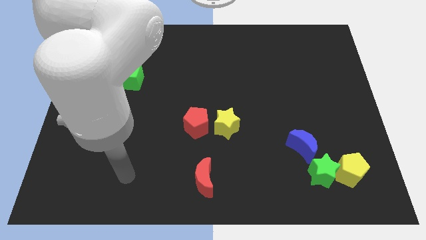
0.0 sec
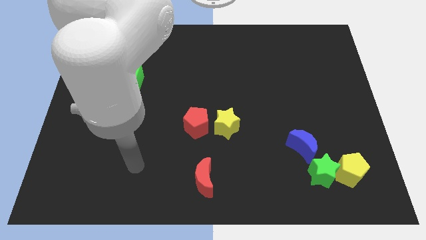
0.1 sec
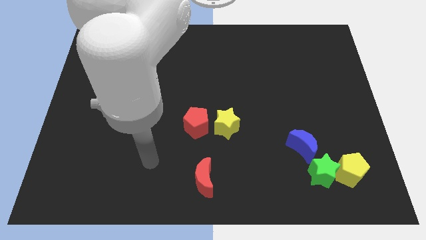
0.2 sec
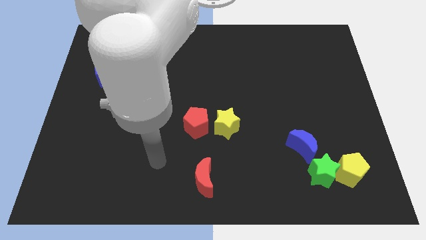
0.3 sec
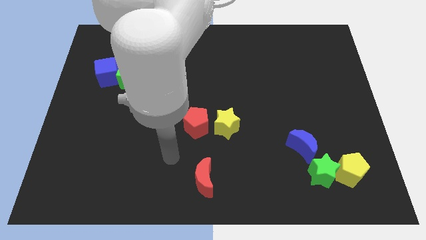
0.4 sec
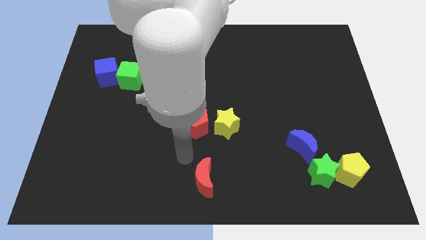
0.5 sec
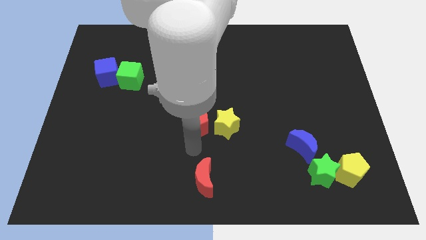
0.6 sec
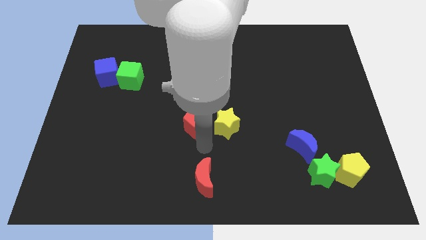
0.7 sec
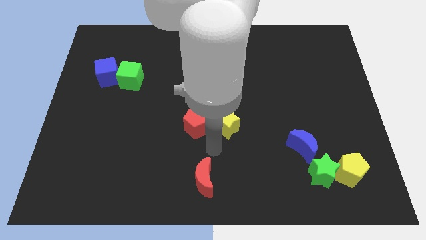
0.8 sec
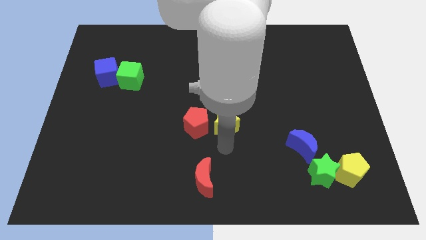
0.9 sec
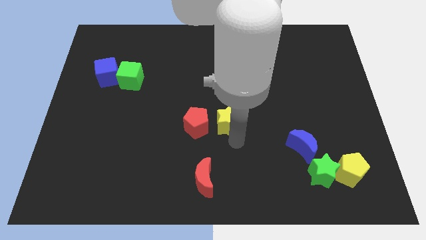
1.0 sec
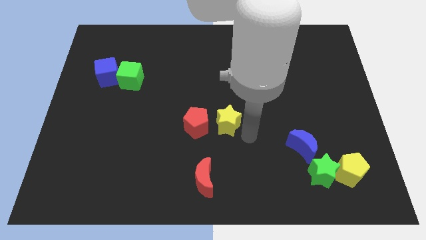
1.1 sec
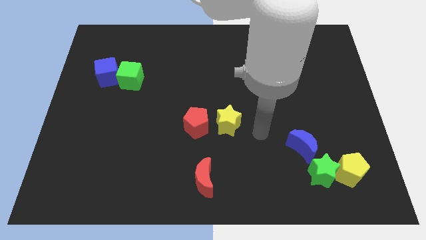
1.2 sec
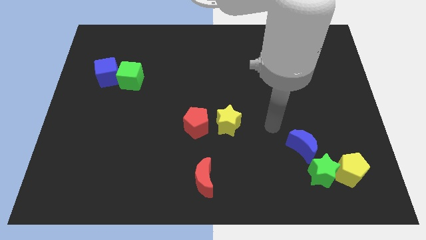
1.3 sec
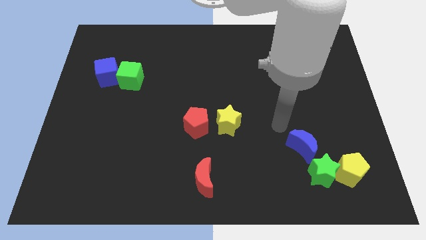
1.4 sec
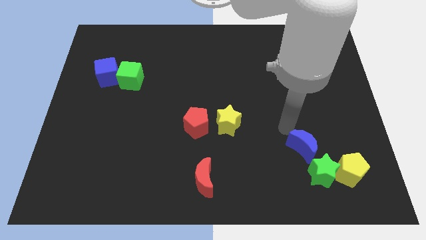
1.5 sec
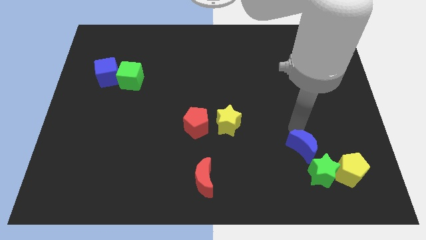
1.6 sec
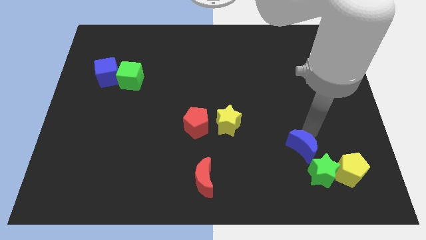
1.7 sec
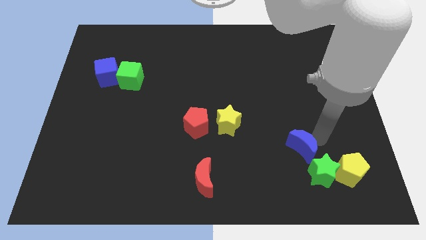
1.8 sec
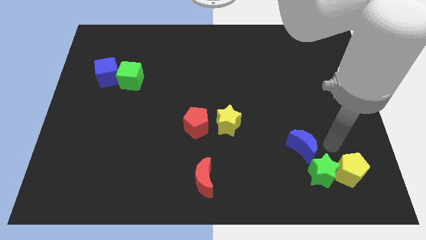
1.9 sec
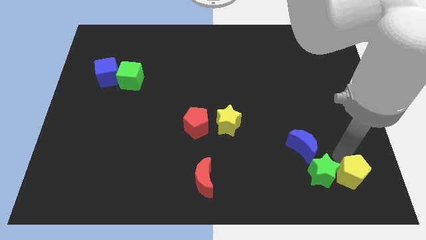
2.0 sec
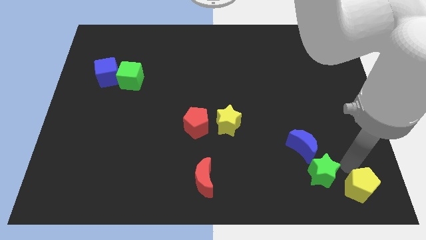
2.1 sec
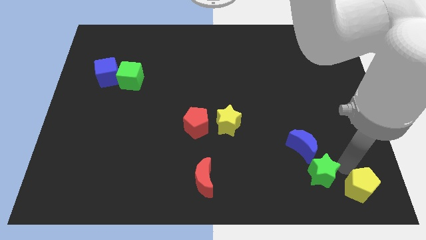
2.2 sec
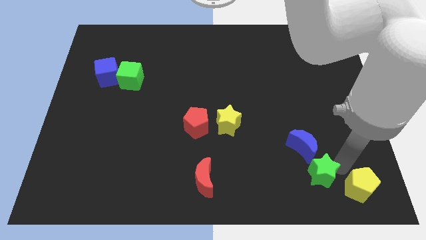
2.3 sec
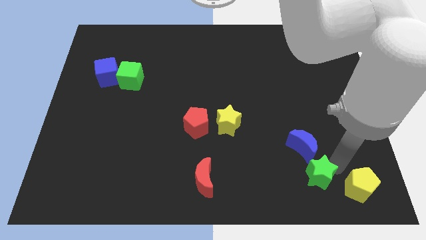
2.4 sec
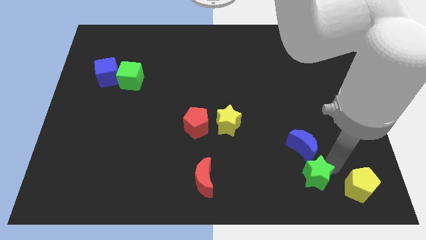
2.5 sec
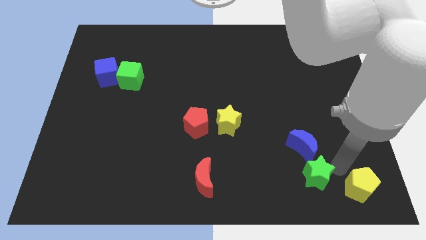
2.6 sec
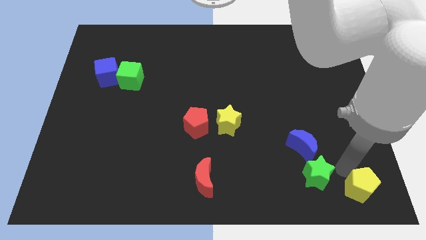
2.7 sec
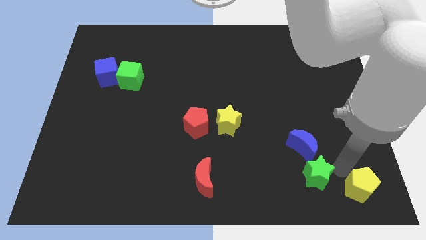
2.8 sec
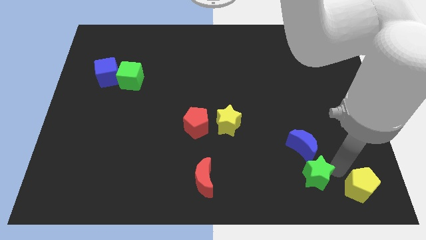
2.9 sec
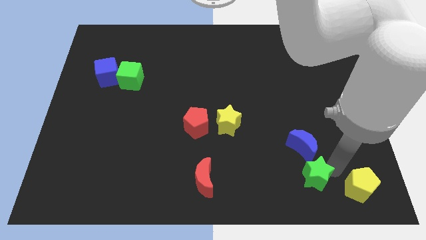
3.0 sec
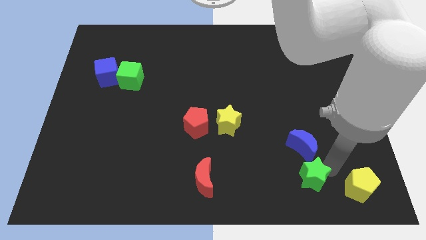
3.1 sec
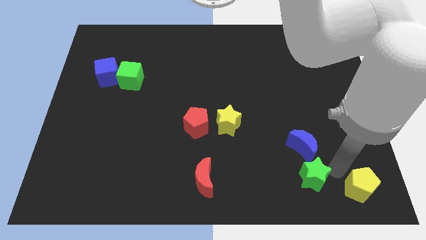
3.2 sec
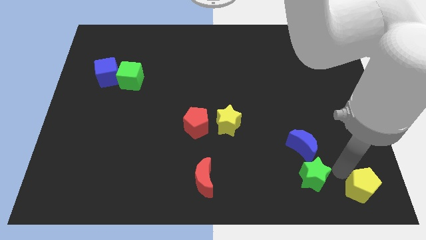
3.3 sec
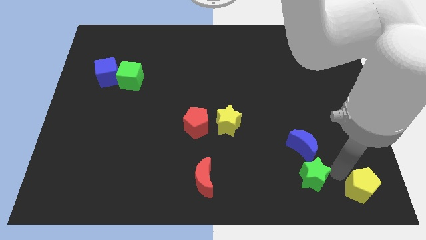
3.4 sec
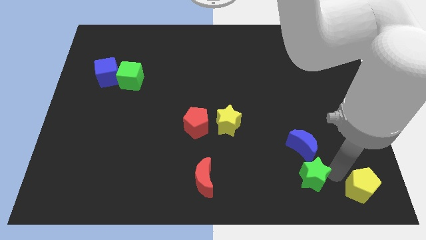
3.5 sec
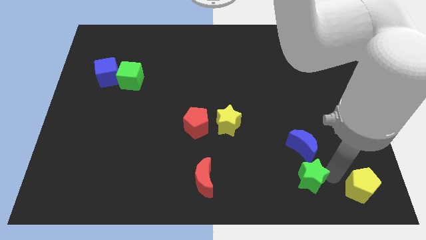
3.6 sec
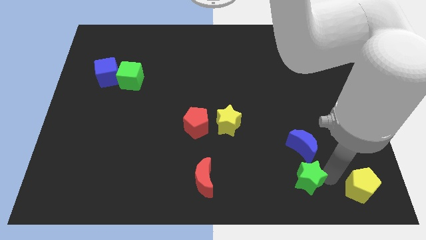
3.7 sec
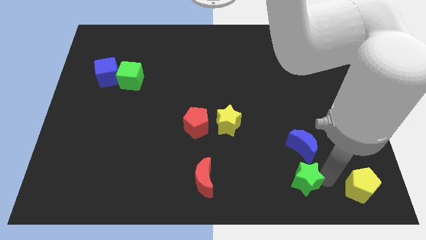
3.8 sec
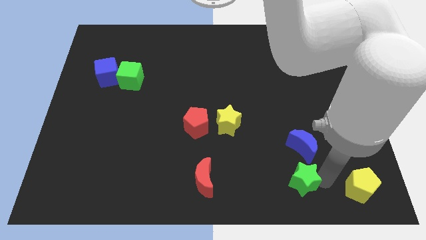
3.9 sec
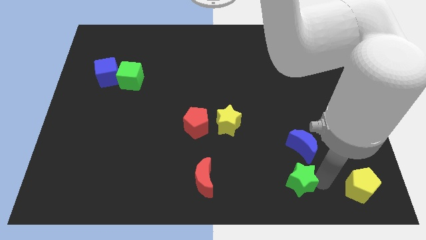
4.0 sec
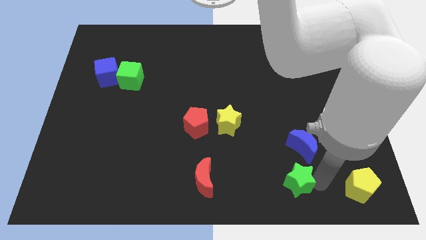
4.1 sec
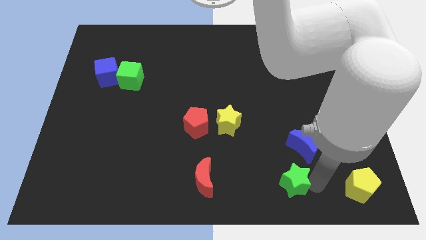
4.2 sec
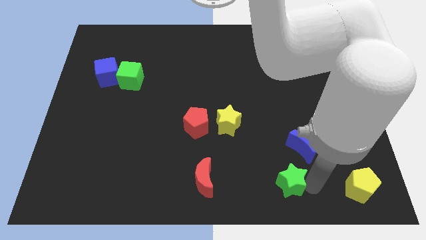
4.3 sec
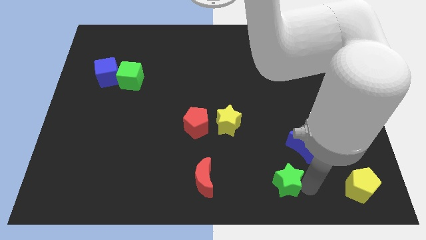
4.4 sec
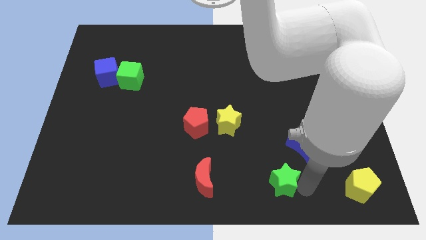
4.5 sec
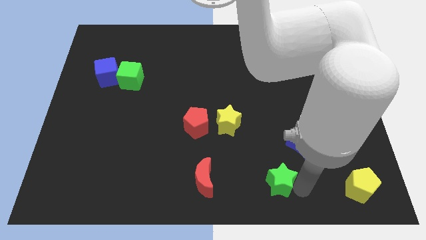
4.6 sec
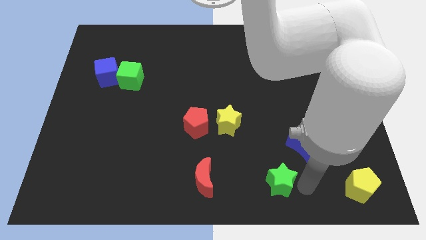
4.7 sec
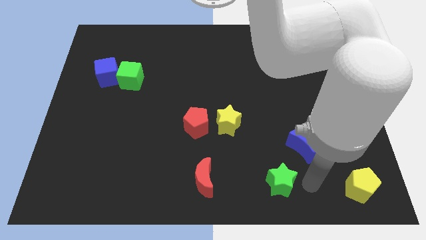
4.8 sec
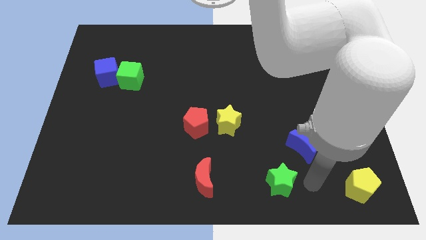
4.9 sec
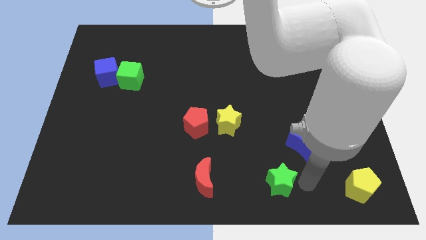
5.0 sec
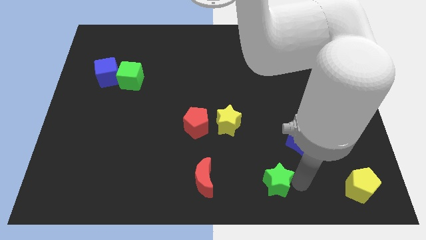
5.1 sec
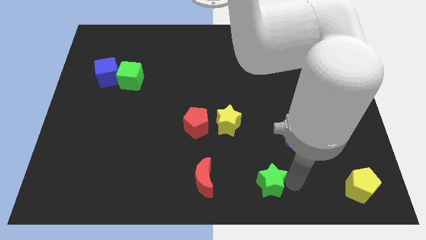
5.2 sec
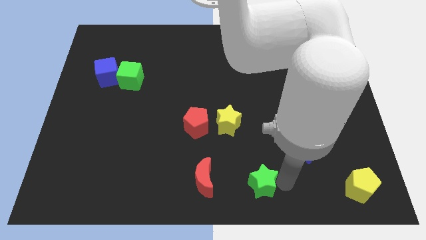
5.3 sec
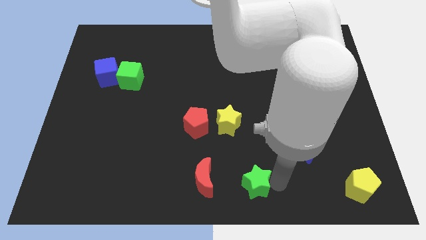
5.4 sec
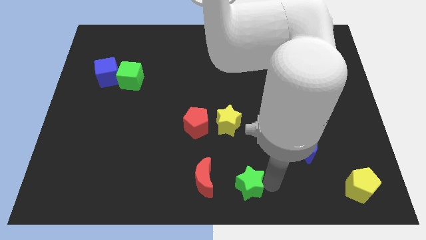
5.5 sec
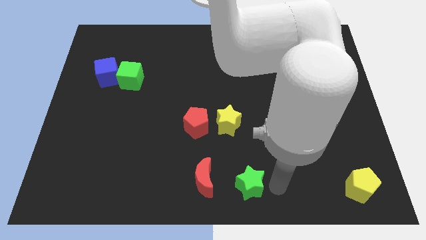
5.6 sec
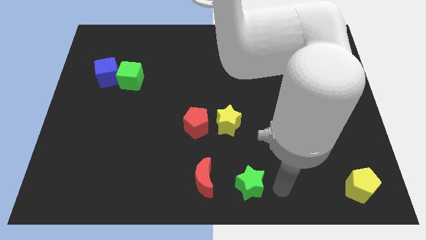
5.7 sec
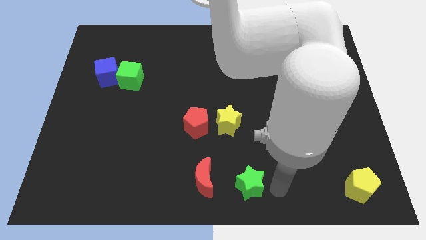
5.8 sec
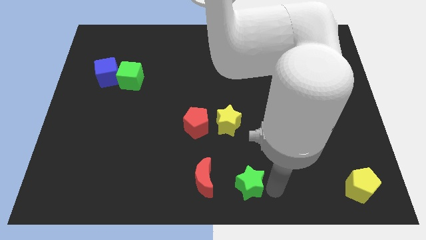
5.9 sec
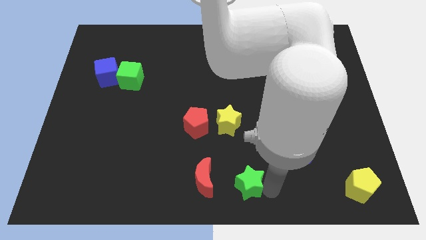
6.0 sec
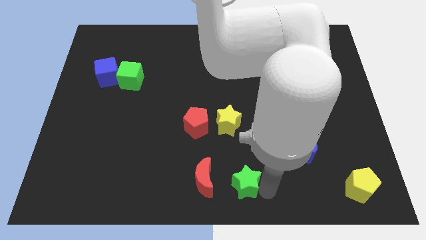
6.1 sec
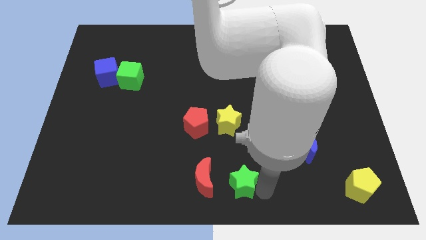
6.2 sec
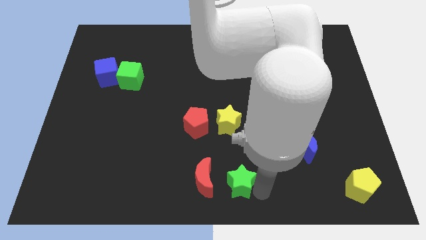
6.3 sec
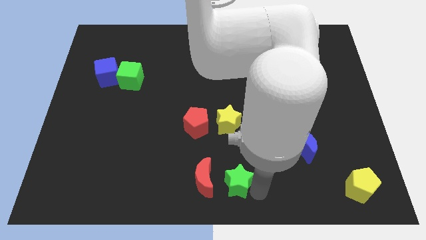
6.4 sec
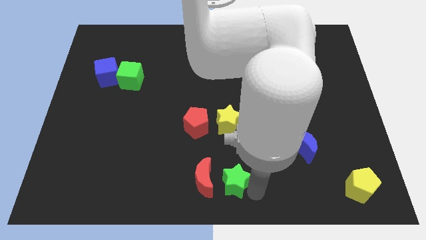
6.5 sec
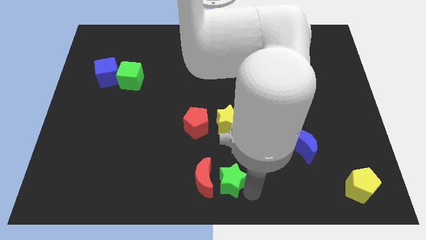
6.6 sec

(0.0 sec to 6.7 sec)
move the green star next to the red moon

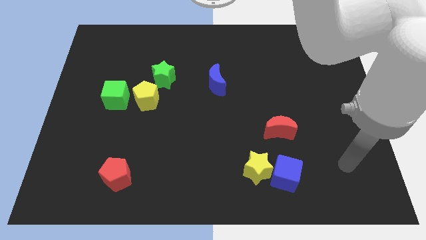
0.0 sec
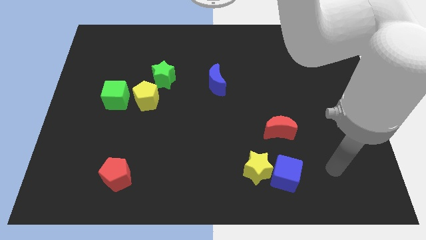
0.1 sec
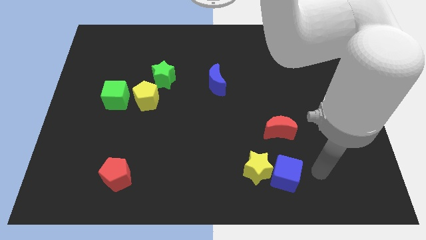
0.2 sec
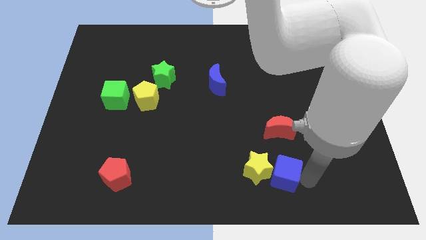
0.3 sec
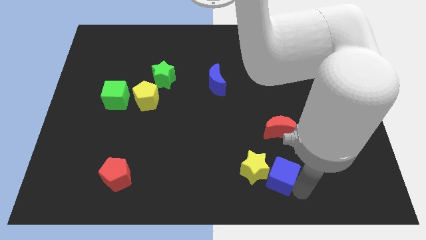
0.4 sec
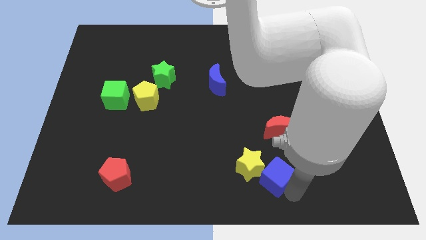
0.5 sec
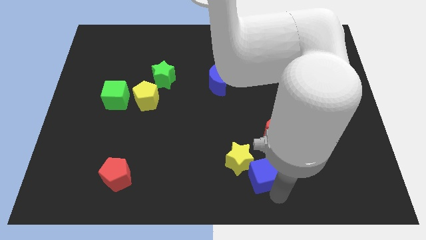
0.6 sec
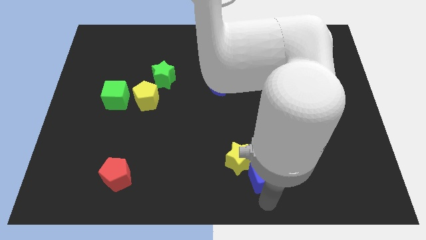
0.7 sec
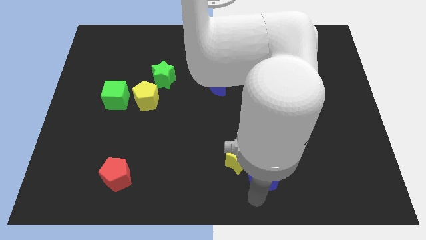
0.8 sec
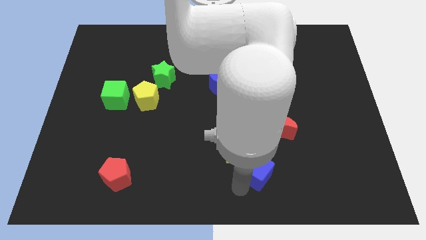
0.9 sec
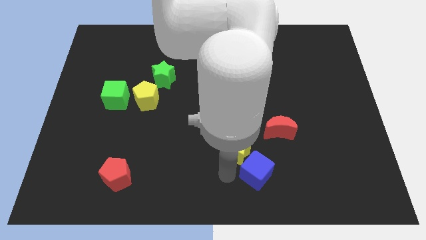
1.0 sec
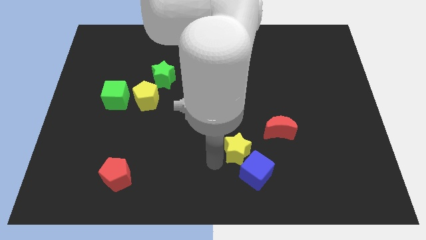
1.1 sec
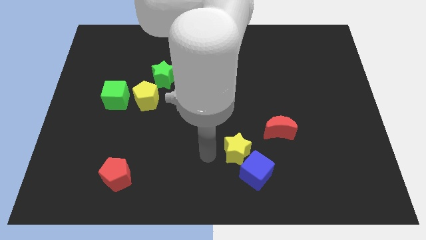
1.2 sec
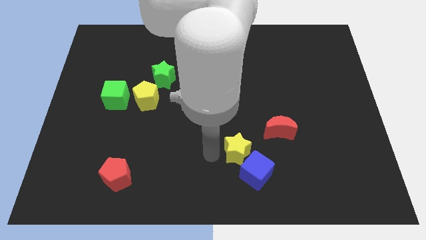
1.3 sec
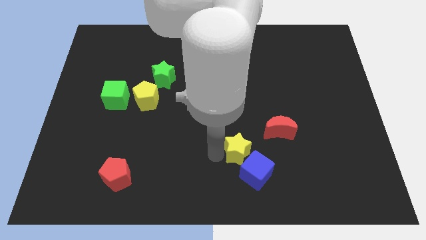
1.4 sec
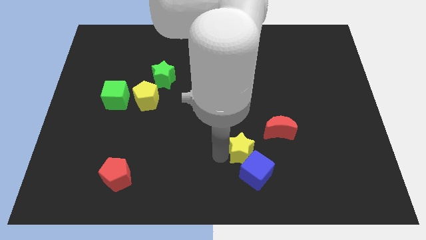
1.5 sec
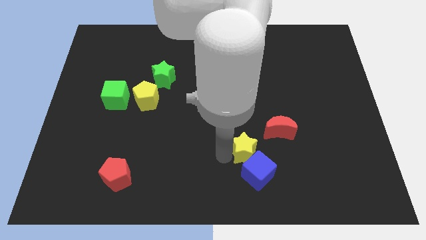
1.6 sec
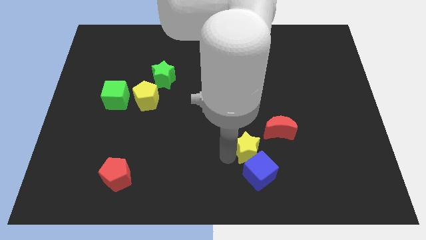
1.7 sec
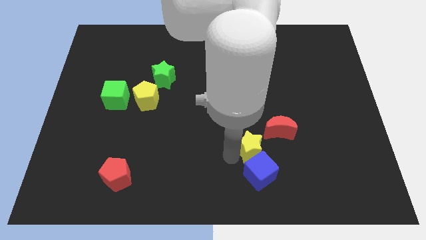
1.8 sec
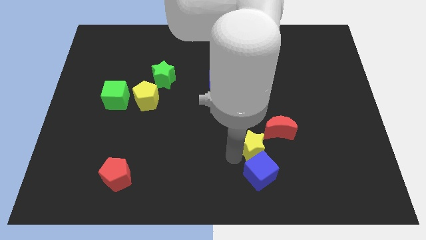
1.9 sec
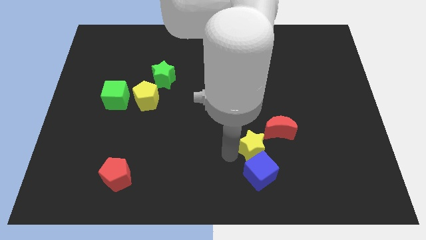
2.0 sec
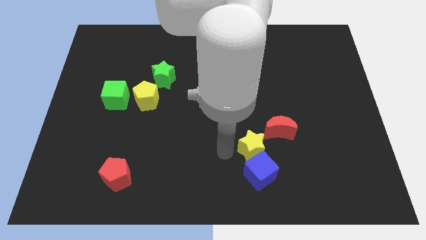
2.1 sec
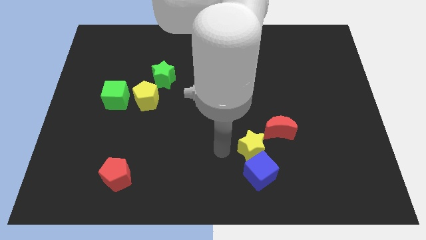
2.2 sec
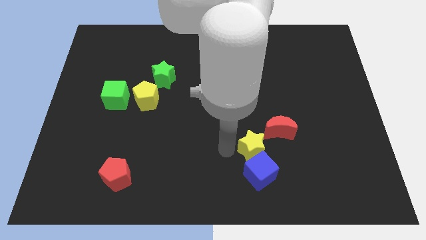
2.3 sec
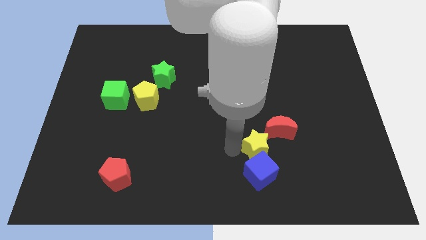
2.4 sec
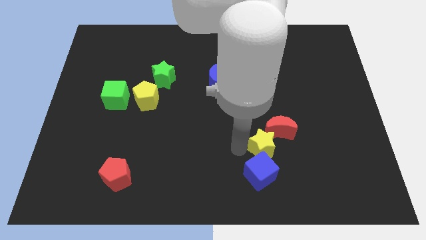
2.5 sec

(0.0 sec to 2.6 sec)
put the yellow star towards the red moon
